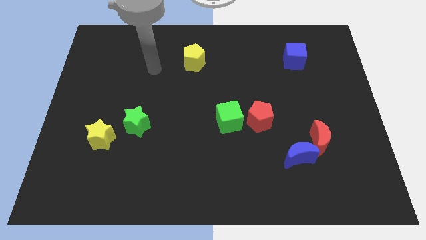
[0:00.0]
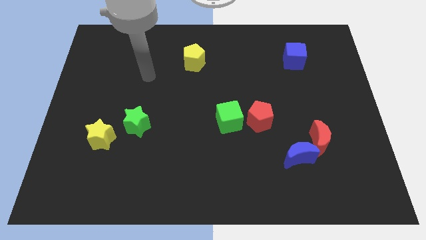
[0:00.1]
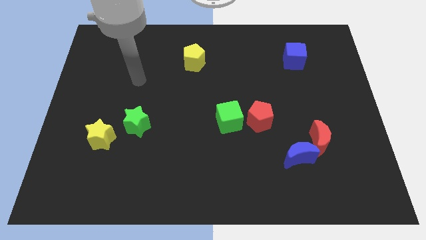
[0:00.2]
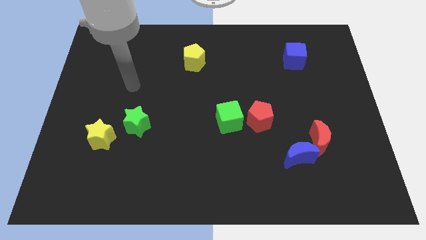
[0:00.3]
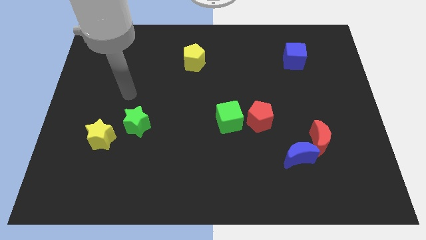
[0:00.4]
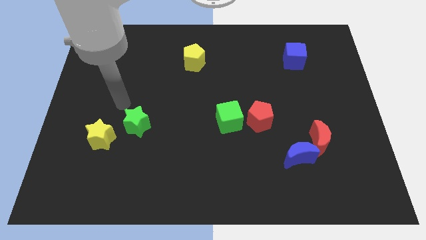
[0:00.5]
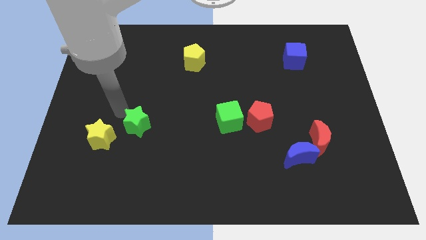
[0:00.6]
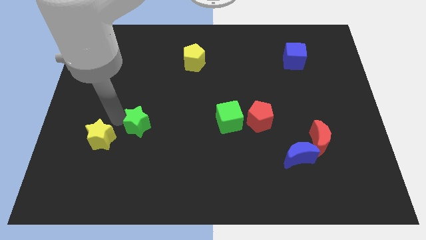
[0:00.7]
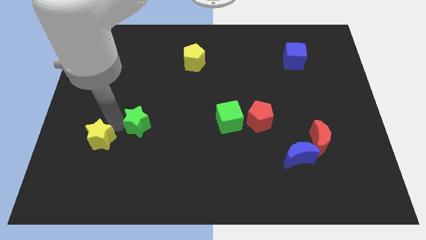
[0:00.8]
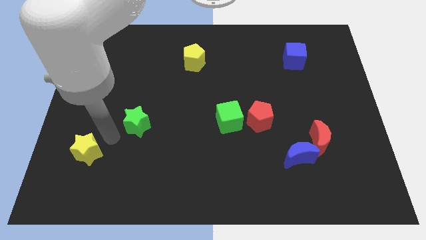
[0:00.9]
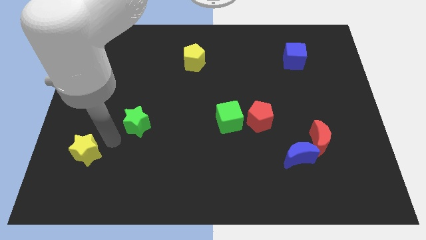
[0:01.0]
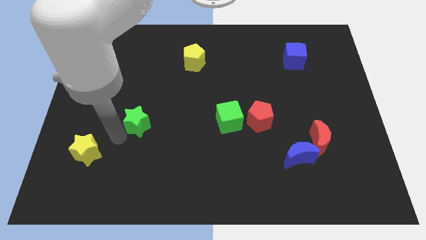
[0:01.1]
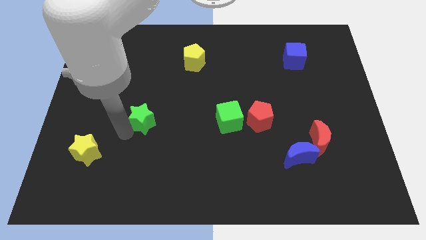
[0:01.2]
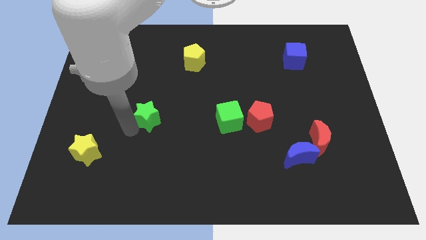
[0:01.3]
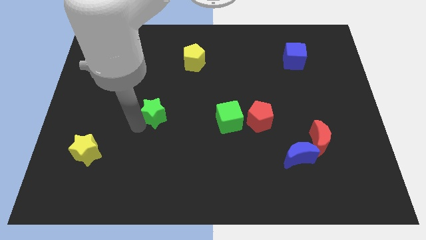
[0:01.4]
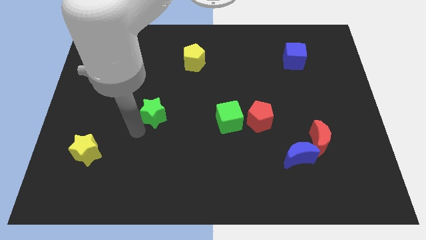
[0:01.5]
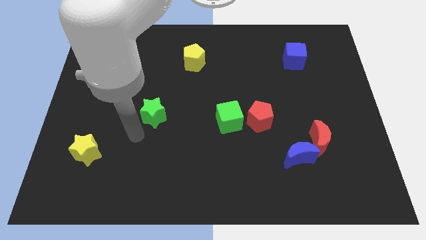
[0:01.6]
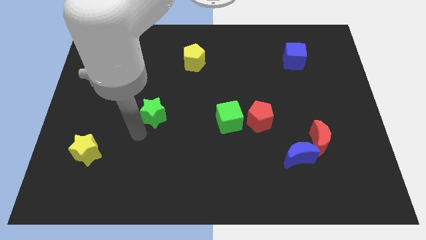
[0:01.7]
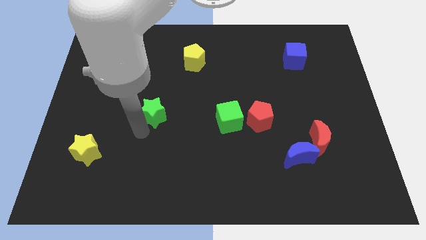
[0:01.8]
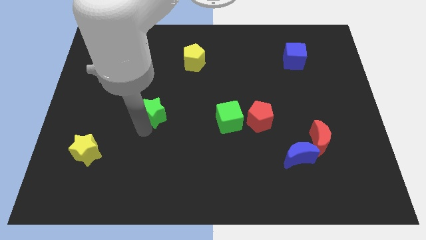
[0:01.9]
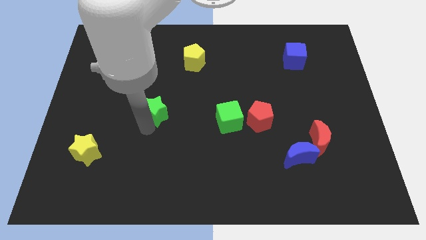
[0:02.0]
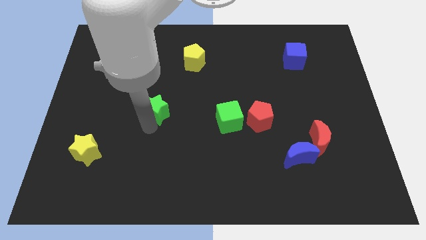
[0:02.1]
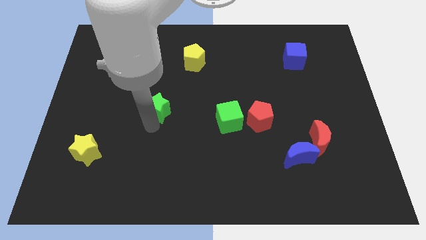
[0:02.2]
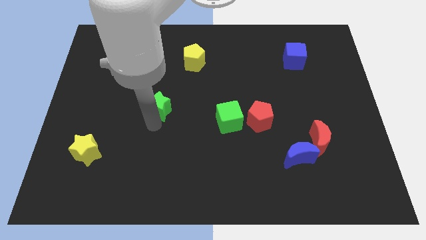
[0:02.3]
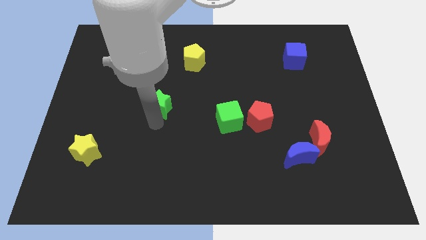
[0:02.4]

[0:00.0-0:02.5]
slide the green star diagonally up and to the right a little

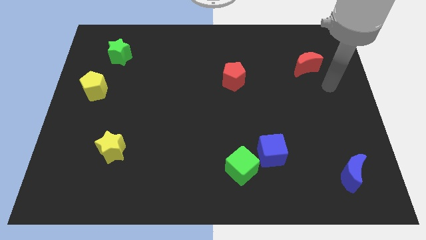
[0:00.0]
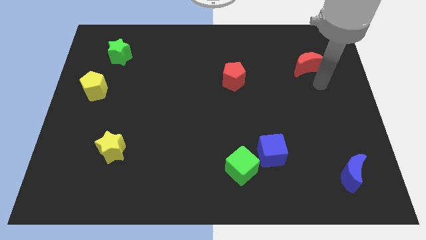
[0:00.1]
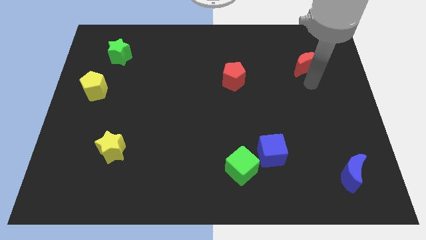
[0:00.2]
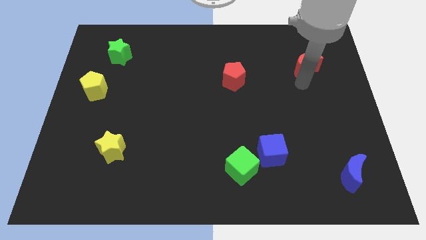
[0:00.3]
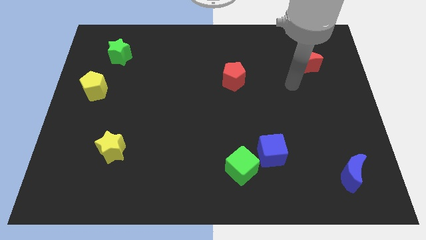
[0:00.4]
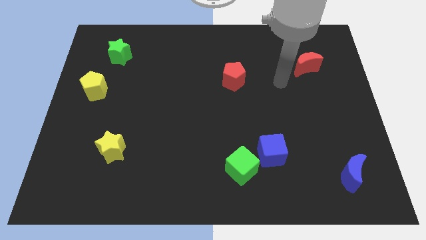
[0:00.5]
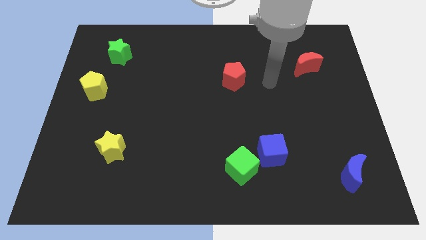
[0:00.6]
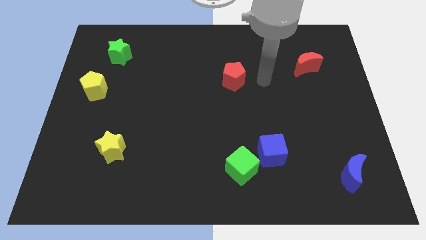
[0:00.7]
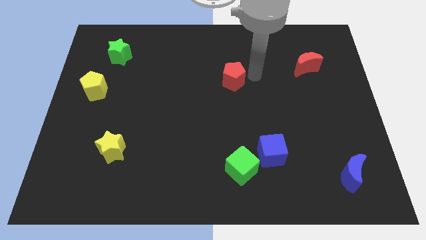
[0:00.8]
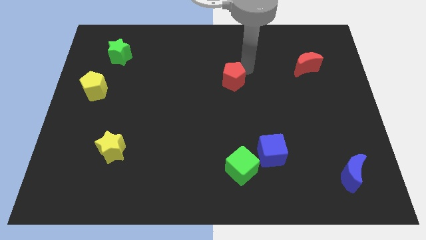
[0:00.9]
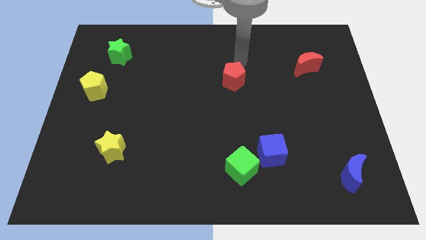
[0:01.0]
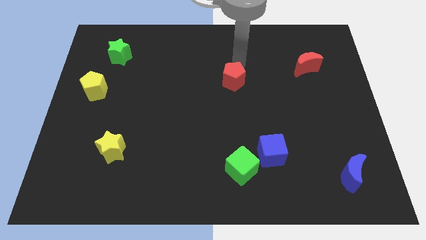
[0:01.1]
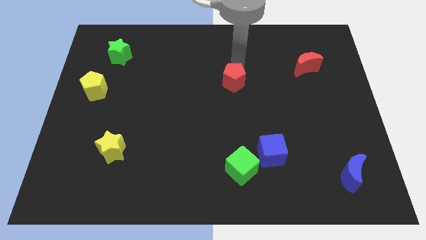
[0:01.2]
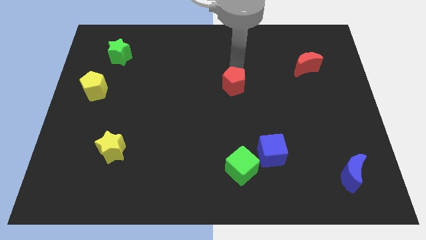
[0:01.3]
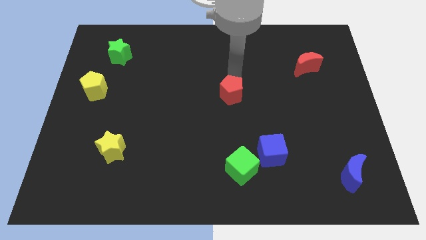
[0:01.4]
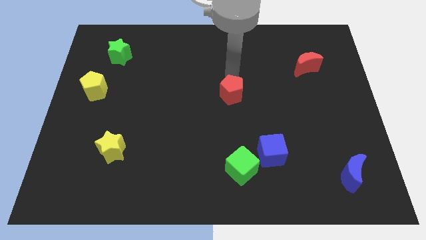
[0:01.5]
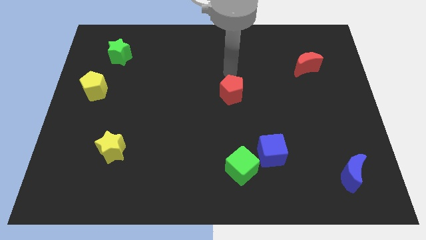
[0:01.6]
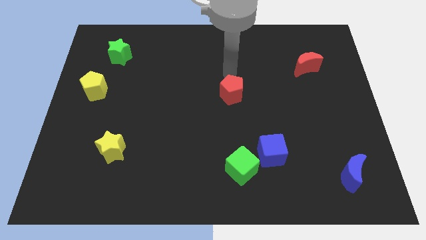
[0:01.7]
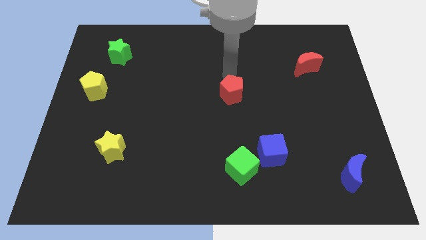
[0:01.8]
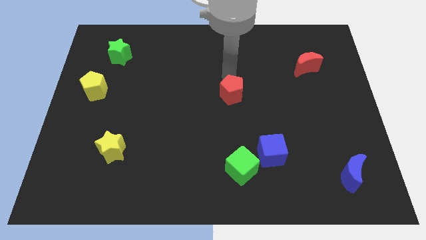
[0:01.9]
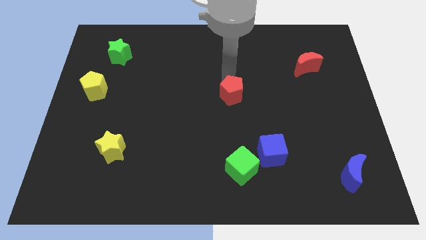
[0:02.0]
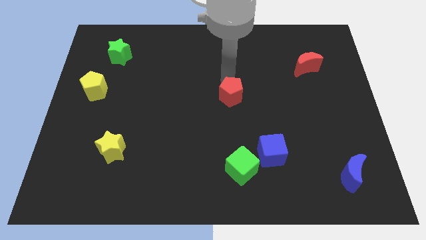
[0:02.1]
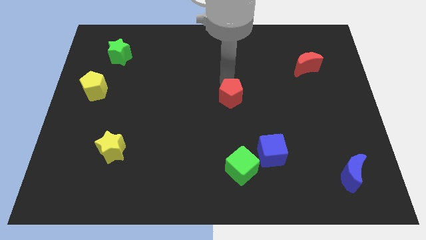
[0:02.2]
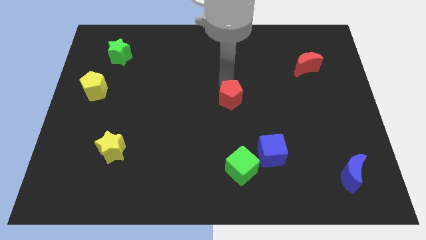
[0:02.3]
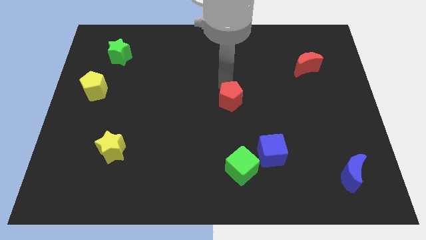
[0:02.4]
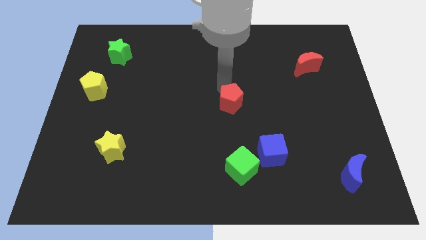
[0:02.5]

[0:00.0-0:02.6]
push the red pentagon slightly down

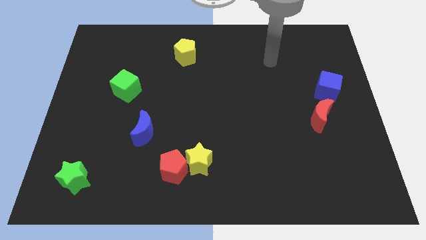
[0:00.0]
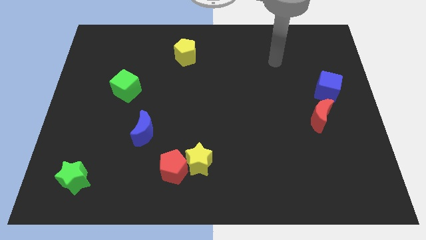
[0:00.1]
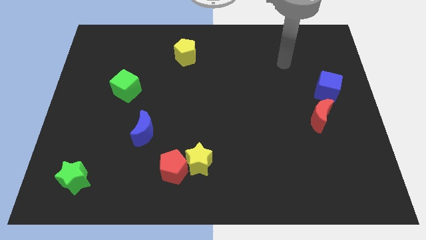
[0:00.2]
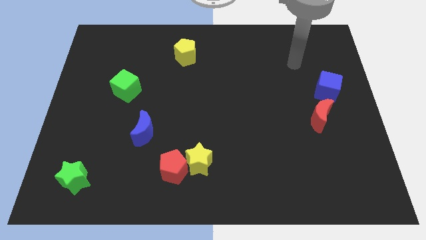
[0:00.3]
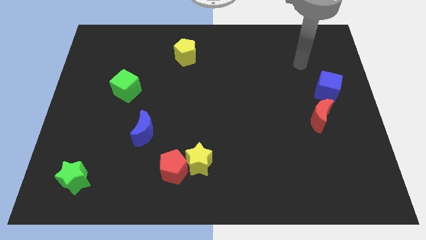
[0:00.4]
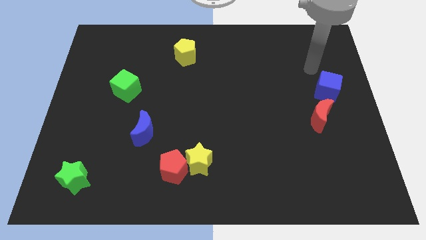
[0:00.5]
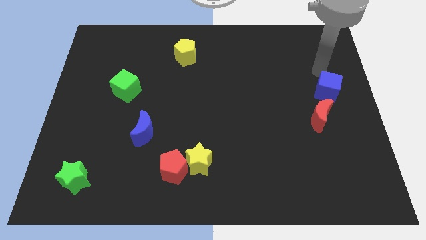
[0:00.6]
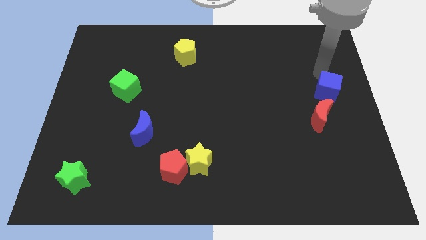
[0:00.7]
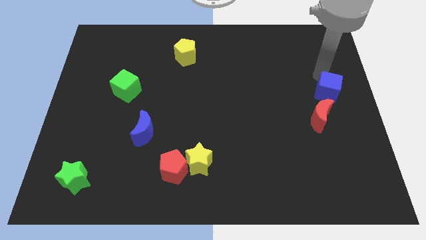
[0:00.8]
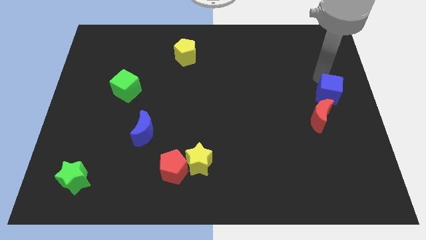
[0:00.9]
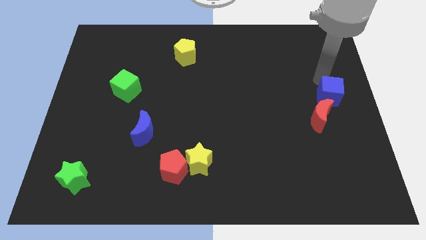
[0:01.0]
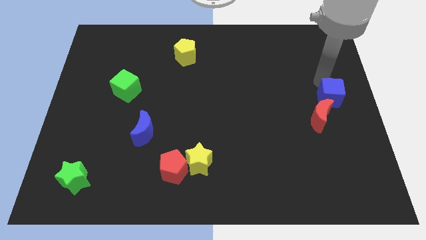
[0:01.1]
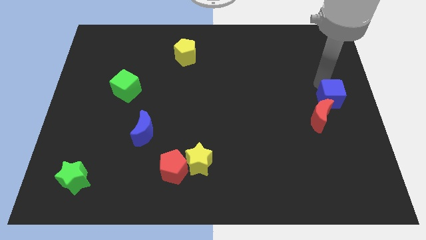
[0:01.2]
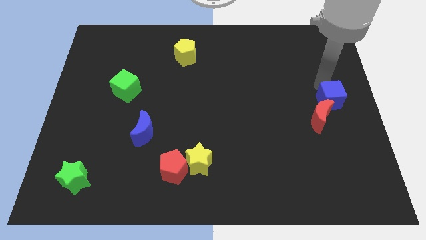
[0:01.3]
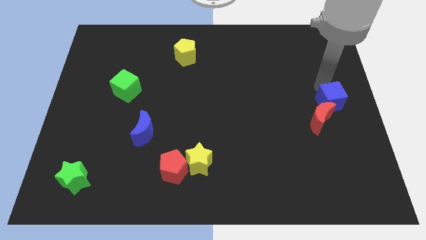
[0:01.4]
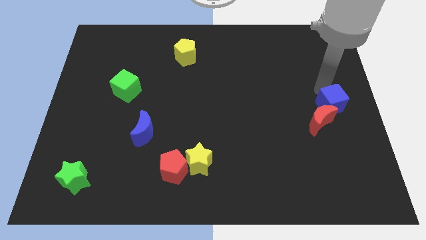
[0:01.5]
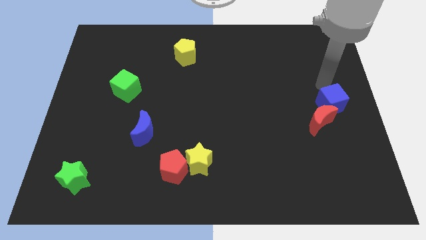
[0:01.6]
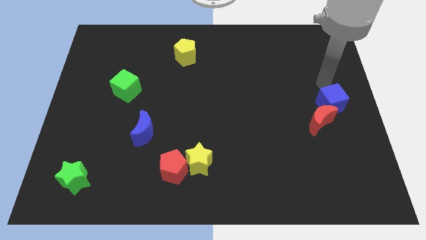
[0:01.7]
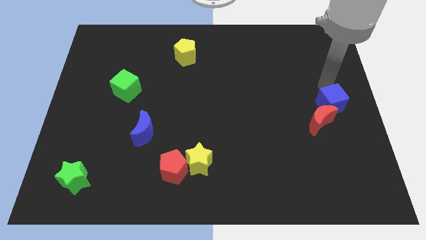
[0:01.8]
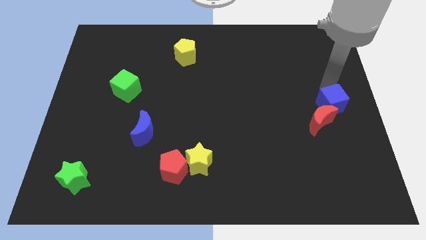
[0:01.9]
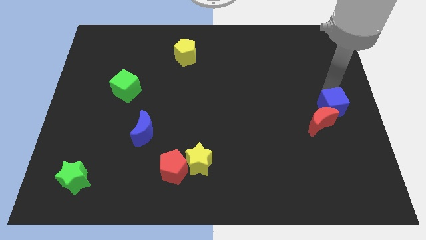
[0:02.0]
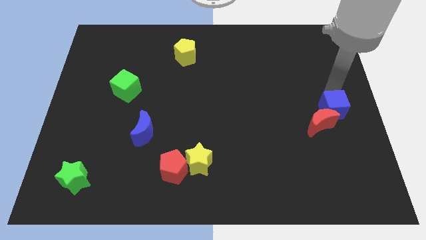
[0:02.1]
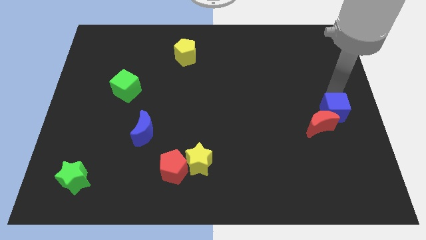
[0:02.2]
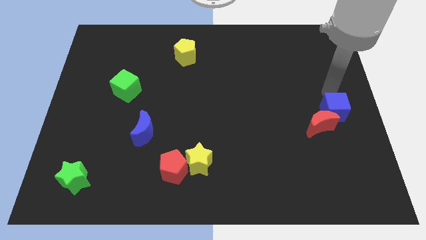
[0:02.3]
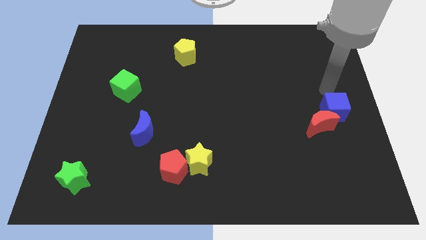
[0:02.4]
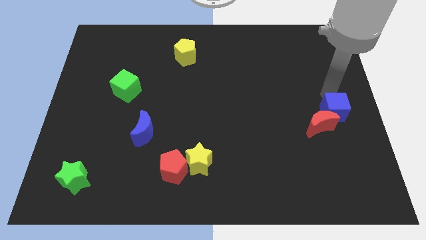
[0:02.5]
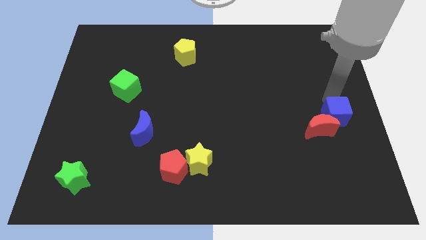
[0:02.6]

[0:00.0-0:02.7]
move the blue cube a bit down

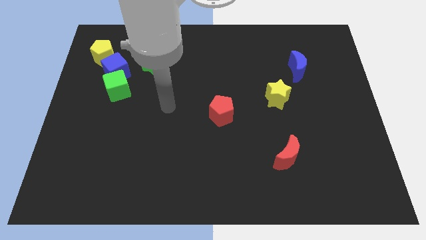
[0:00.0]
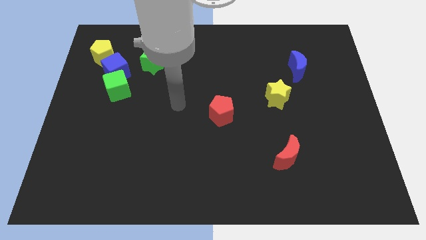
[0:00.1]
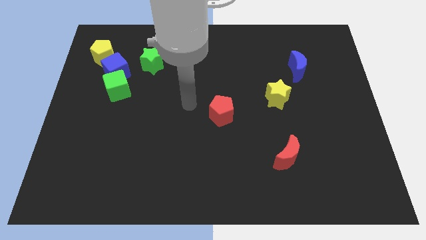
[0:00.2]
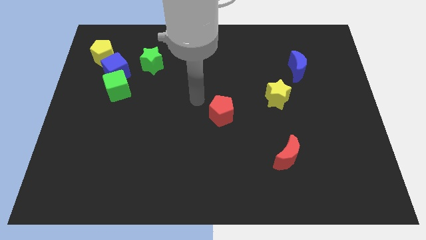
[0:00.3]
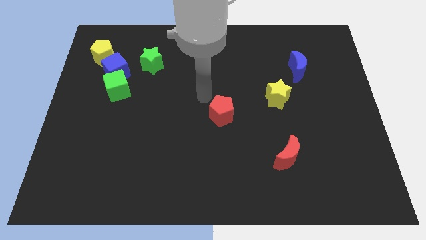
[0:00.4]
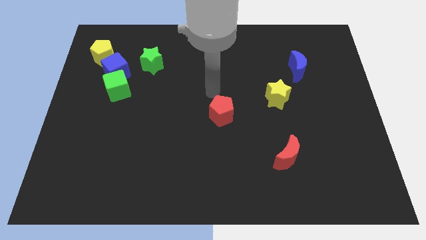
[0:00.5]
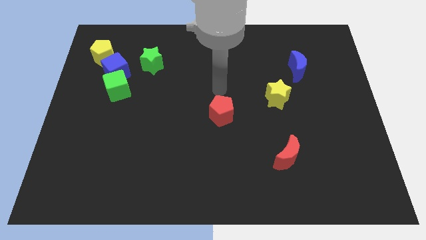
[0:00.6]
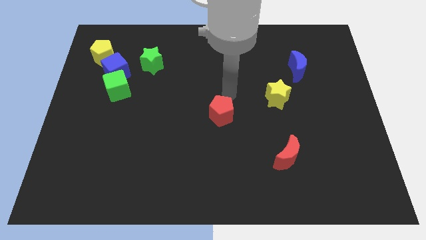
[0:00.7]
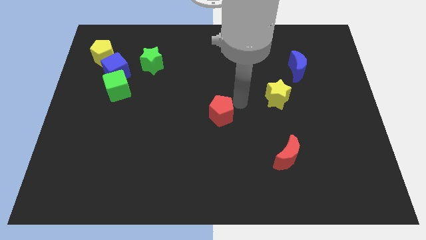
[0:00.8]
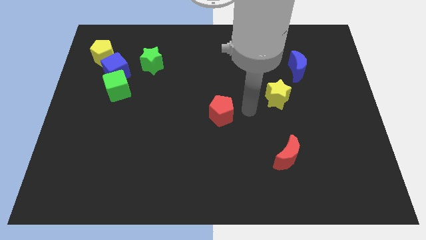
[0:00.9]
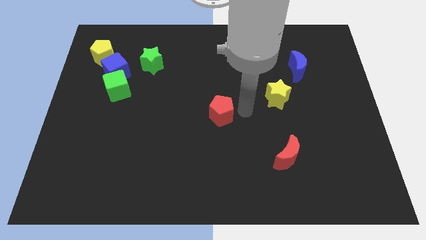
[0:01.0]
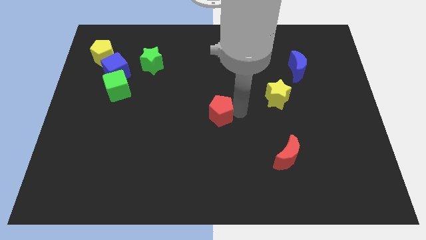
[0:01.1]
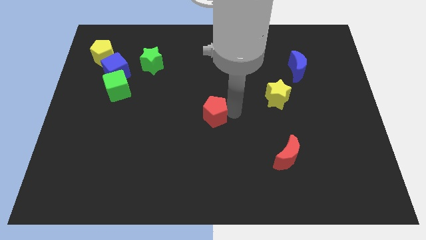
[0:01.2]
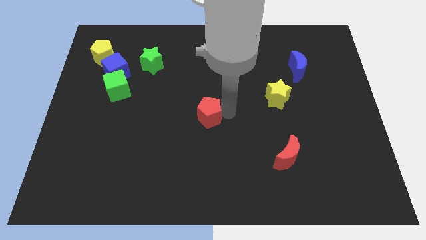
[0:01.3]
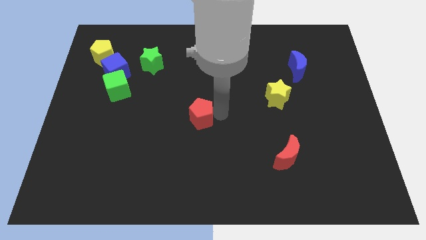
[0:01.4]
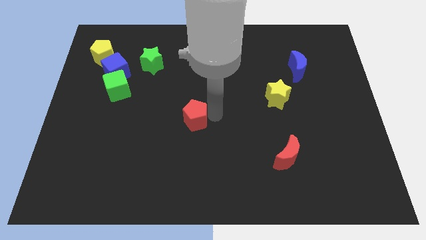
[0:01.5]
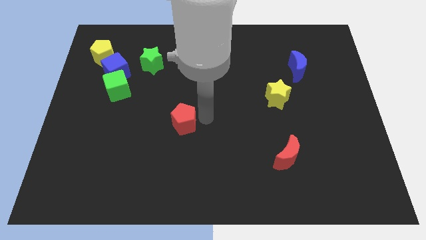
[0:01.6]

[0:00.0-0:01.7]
push the red pentagon to the left a bit
